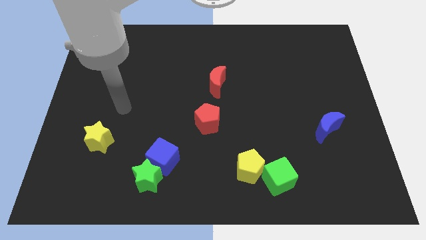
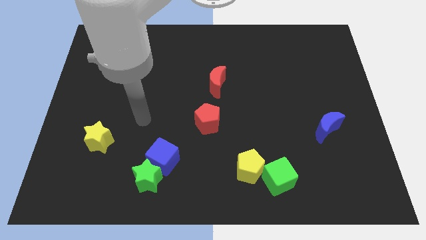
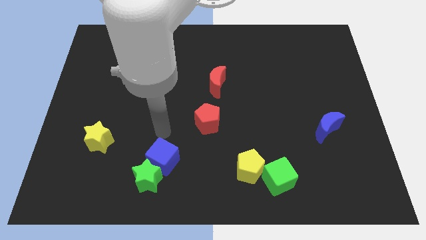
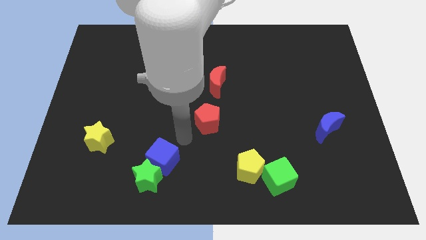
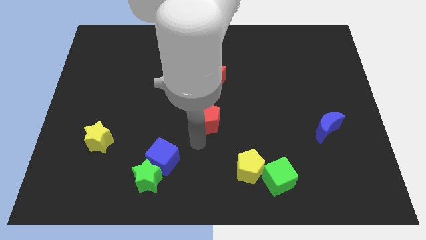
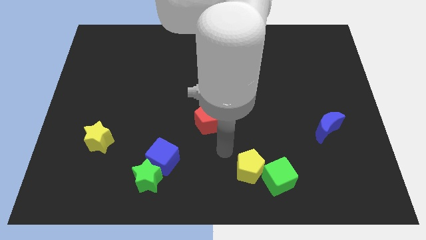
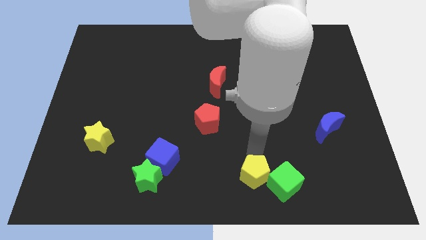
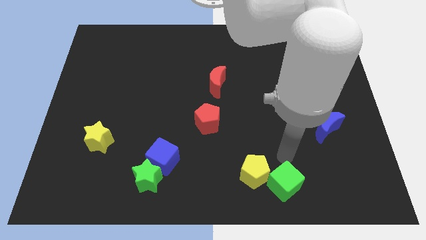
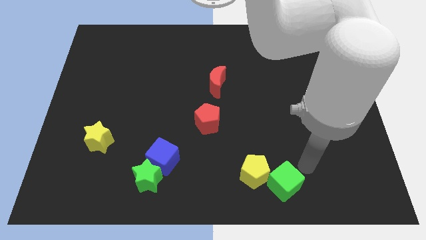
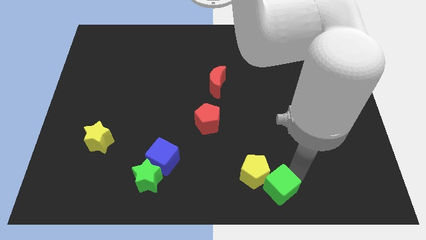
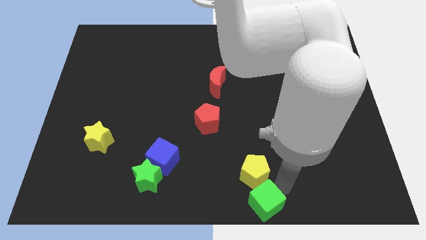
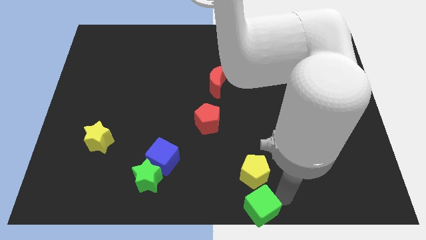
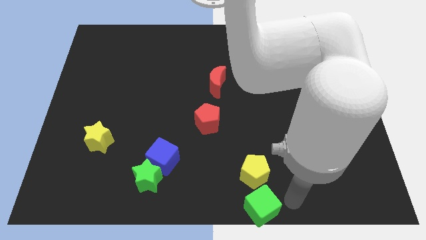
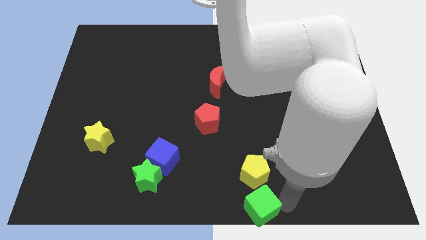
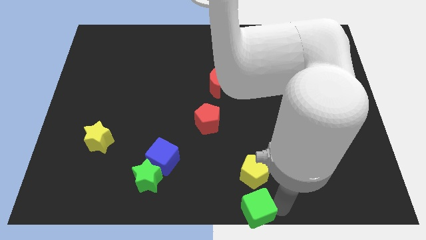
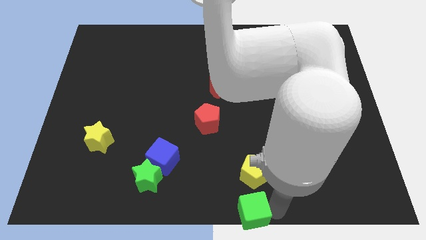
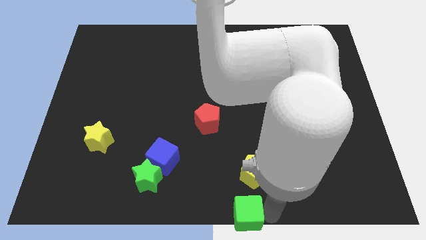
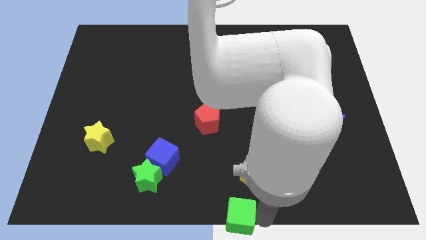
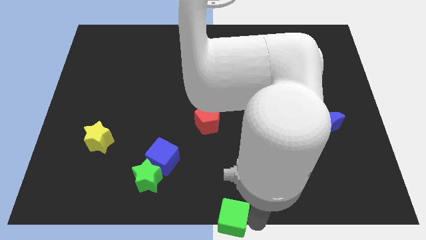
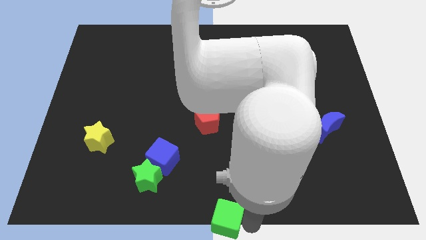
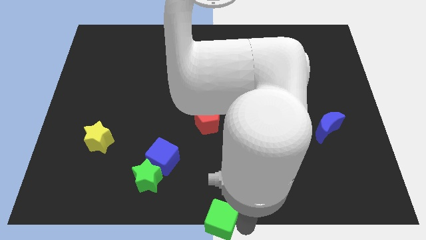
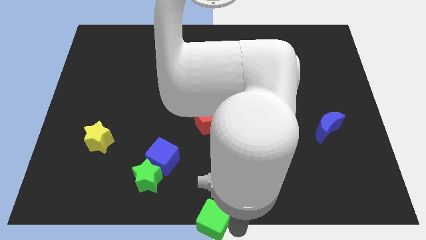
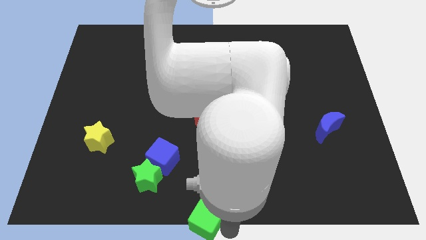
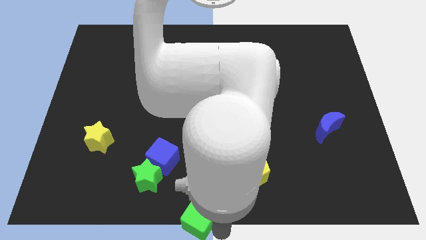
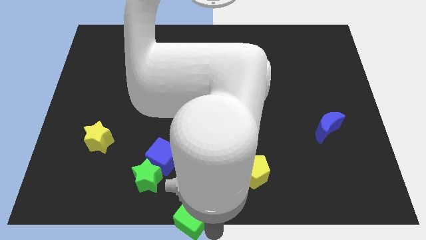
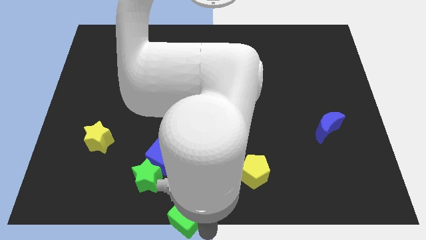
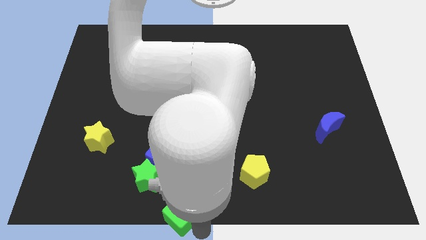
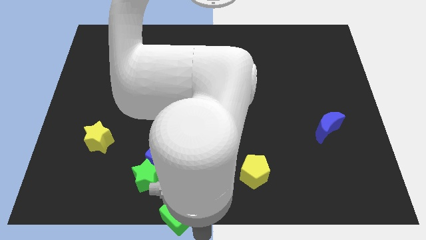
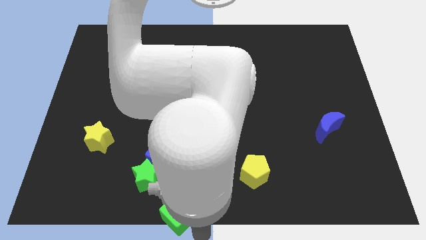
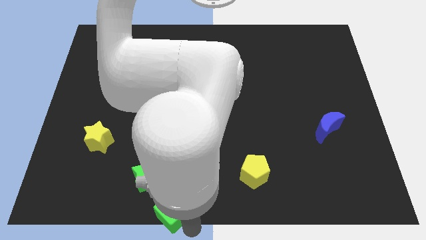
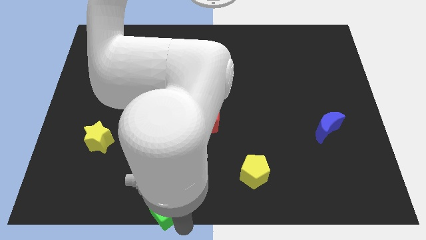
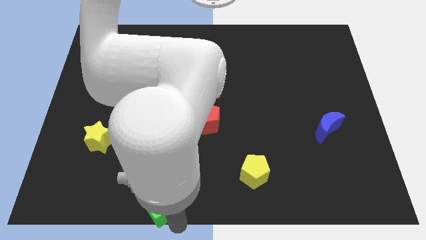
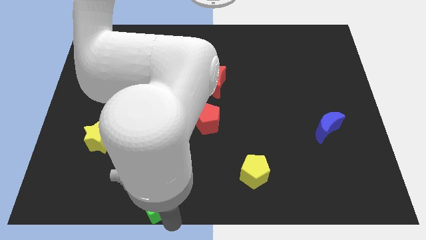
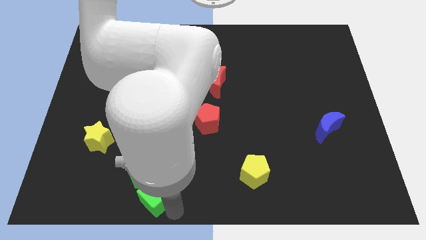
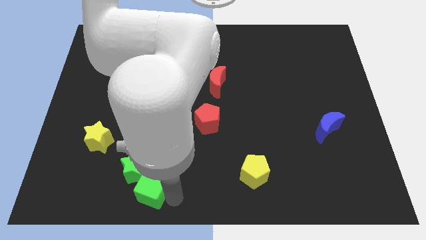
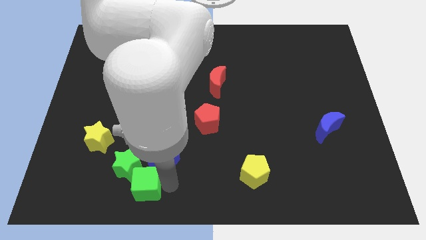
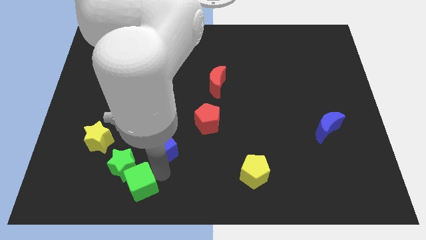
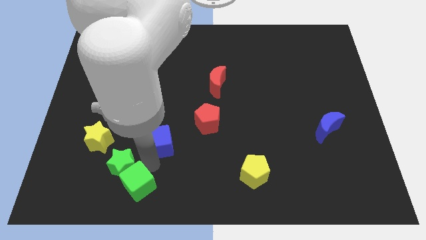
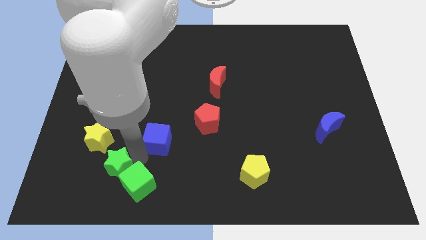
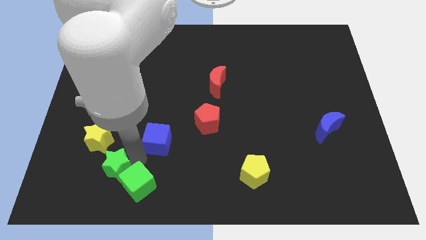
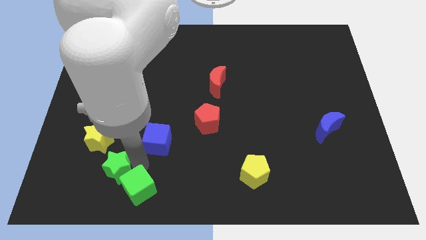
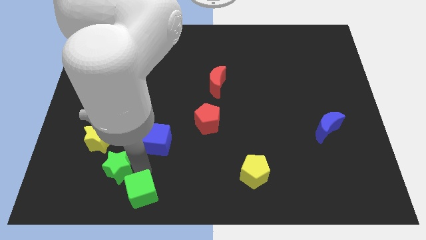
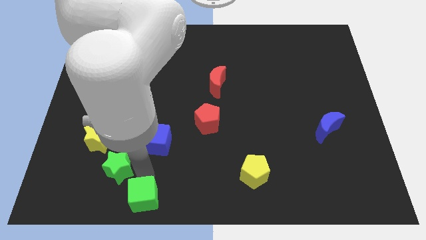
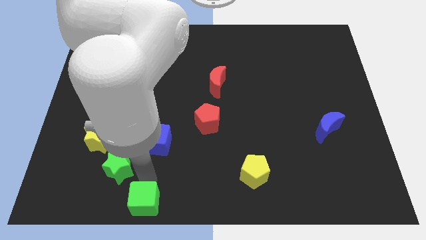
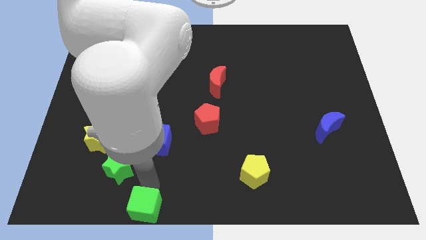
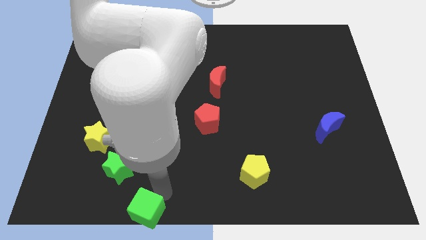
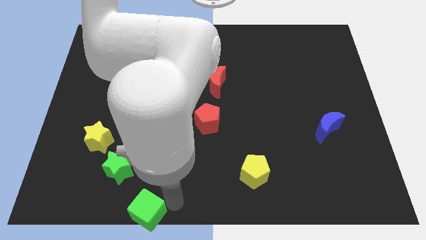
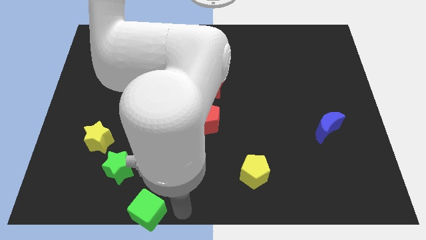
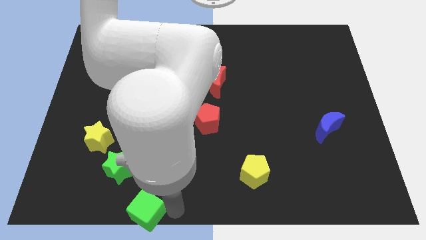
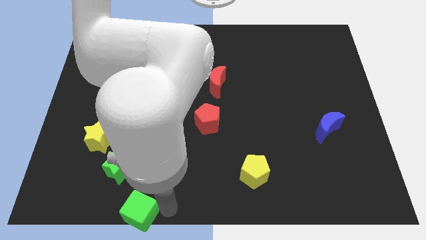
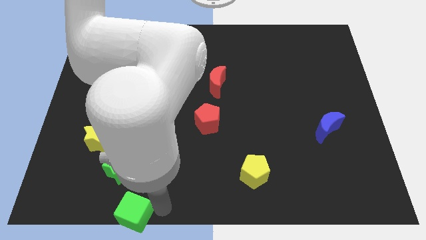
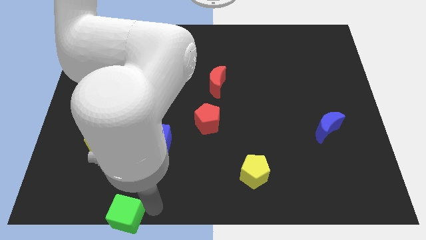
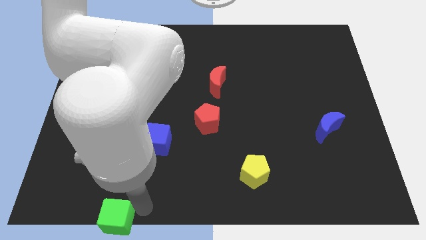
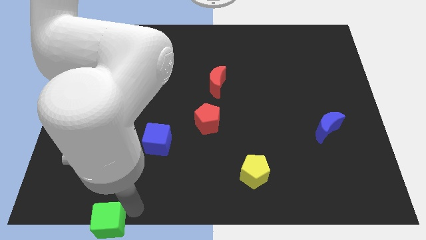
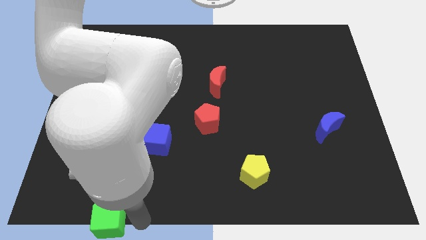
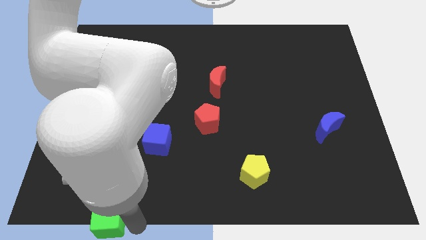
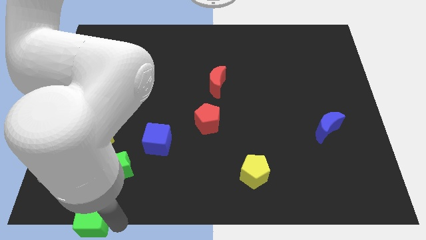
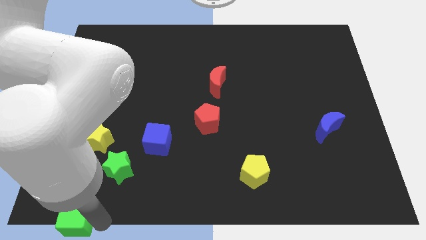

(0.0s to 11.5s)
slide the green cube to the lower left corner
